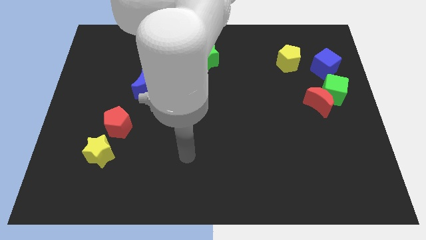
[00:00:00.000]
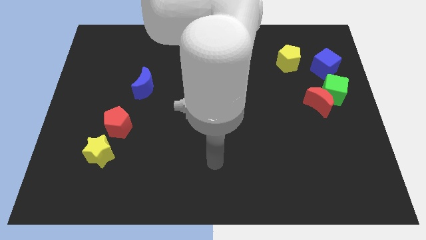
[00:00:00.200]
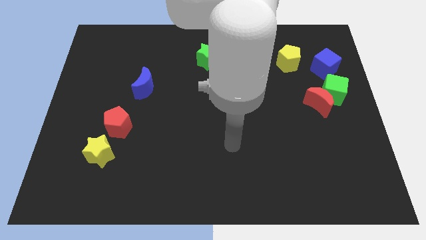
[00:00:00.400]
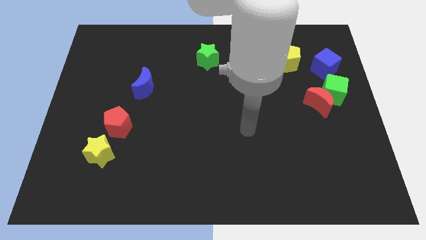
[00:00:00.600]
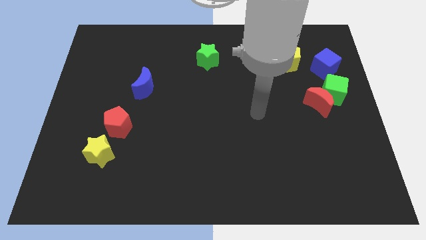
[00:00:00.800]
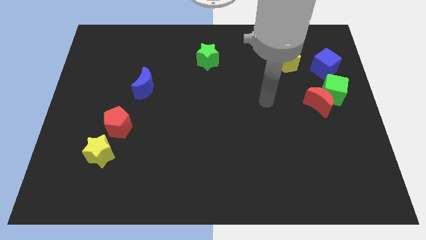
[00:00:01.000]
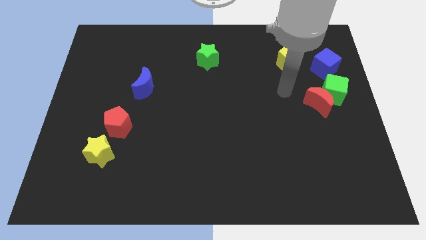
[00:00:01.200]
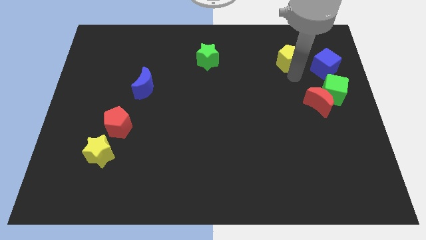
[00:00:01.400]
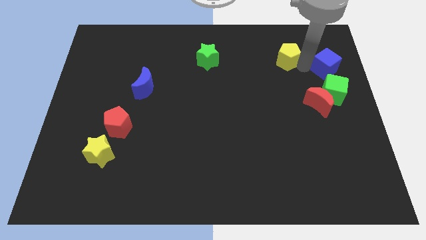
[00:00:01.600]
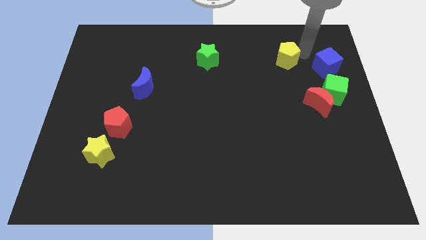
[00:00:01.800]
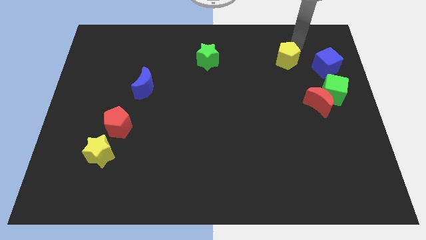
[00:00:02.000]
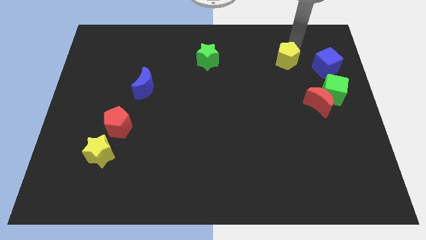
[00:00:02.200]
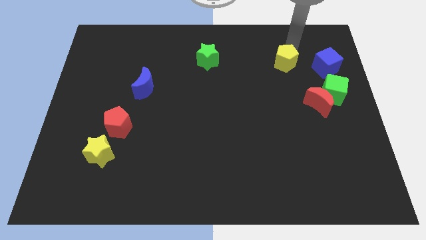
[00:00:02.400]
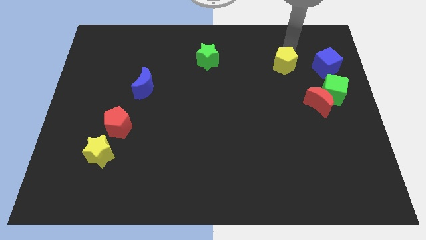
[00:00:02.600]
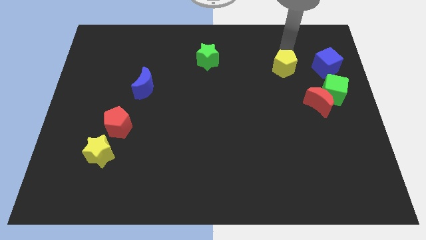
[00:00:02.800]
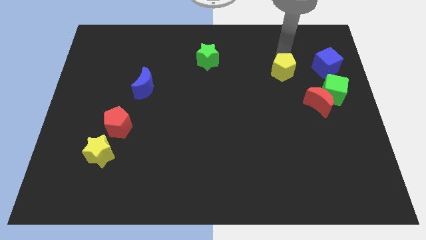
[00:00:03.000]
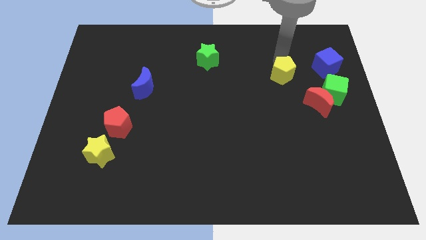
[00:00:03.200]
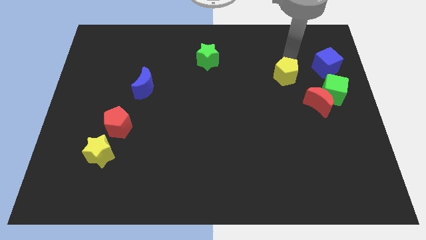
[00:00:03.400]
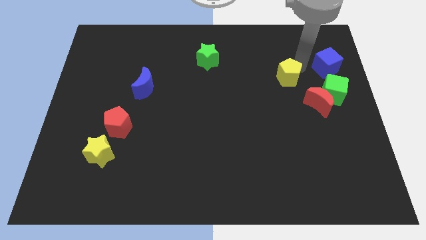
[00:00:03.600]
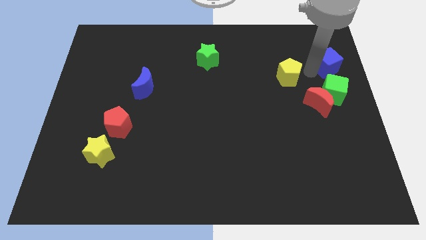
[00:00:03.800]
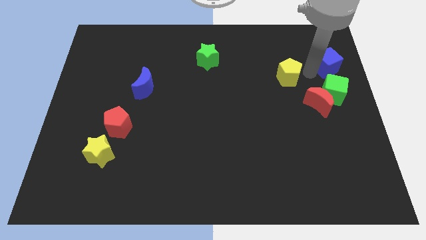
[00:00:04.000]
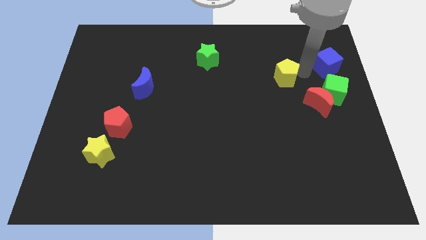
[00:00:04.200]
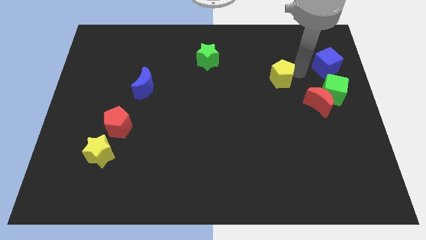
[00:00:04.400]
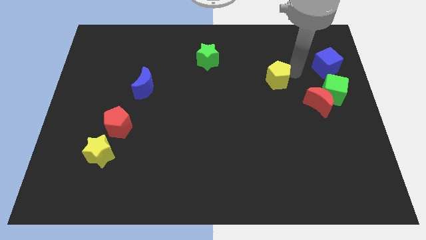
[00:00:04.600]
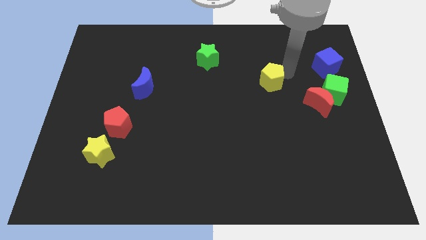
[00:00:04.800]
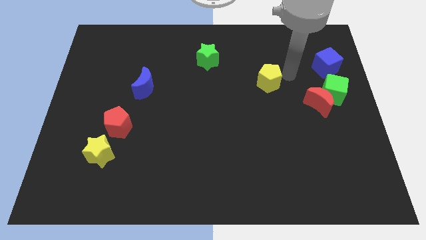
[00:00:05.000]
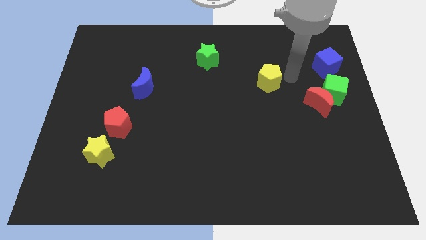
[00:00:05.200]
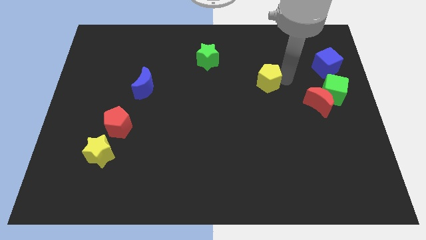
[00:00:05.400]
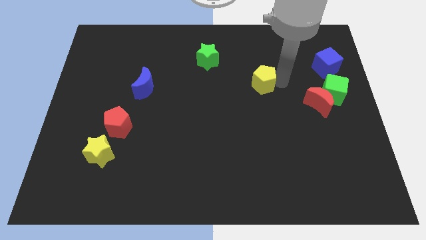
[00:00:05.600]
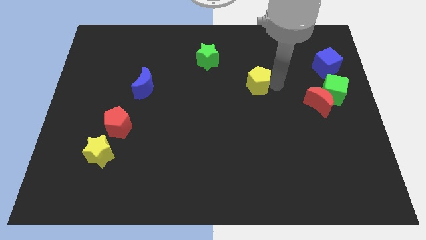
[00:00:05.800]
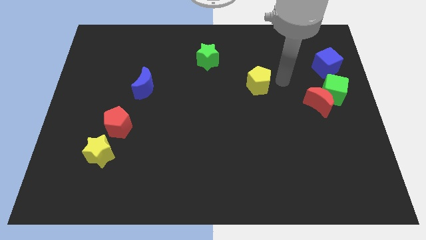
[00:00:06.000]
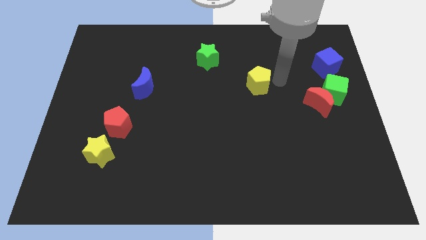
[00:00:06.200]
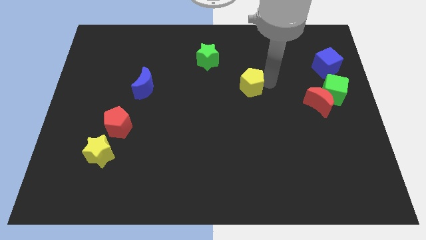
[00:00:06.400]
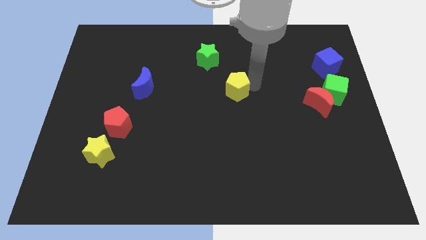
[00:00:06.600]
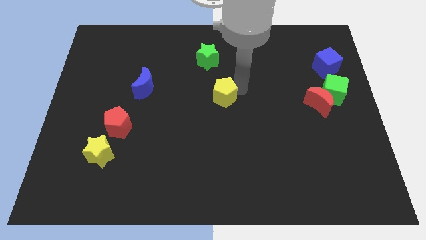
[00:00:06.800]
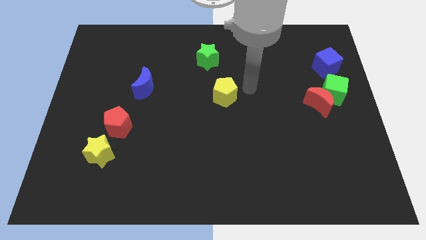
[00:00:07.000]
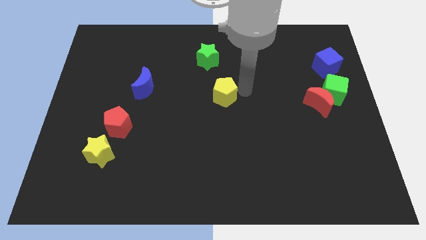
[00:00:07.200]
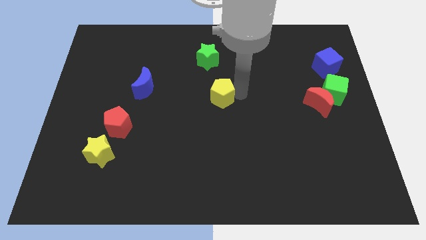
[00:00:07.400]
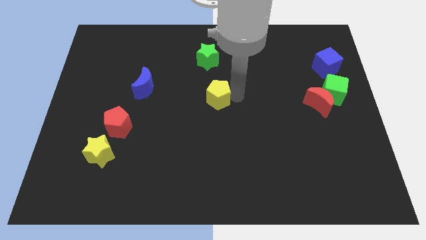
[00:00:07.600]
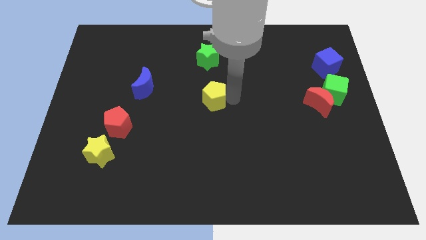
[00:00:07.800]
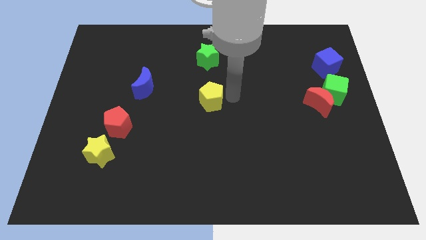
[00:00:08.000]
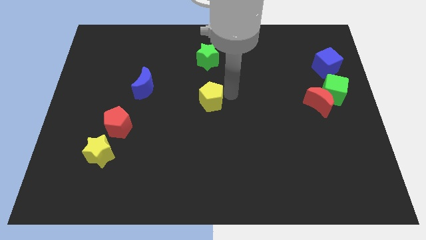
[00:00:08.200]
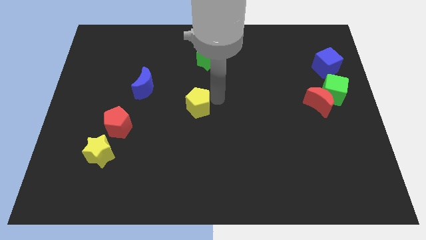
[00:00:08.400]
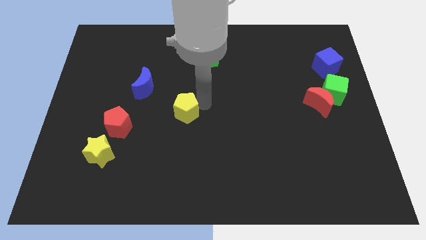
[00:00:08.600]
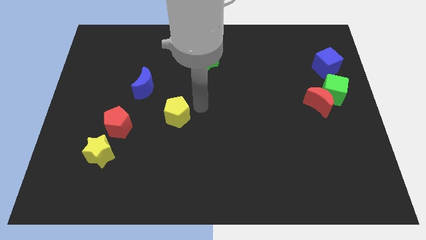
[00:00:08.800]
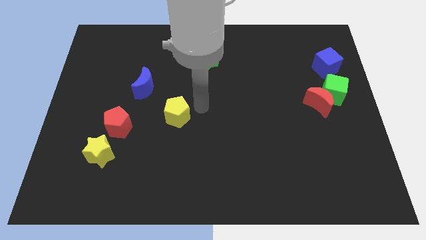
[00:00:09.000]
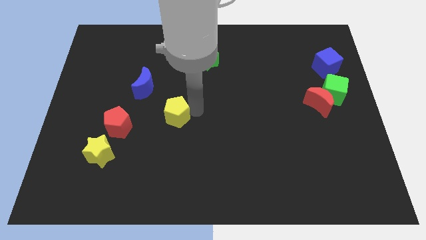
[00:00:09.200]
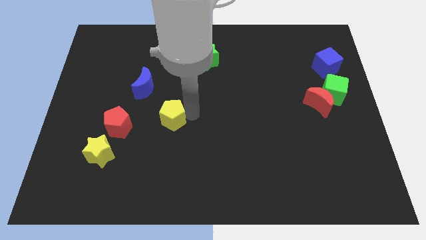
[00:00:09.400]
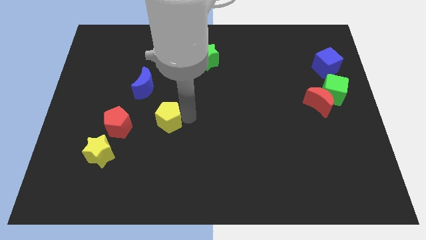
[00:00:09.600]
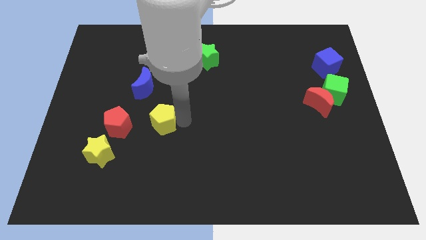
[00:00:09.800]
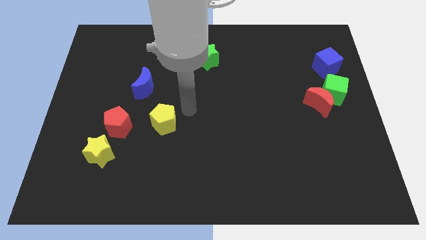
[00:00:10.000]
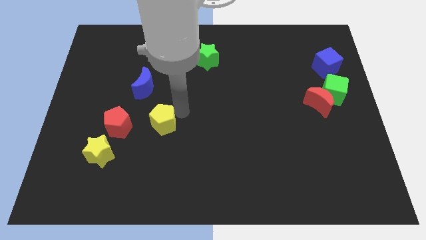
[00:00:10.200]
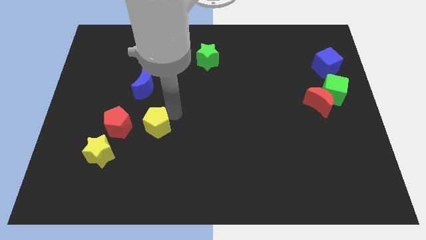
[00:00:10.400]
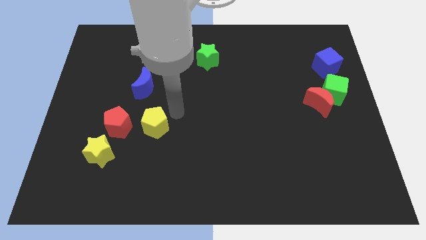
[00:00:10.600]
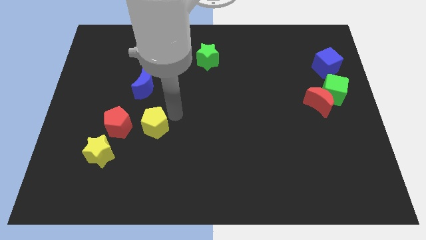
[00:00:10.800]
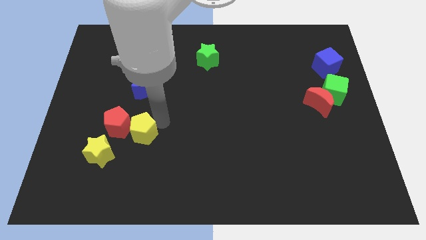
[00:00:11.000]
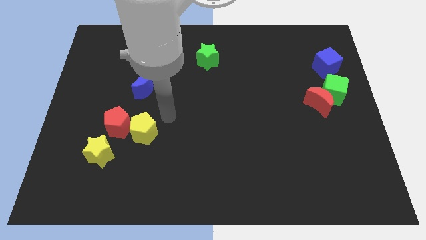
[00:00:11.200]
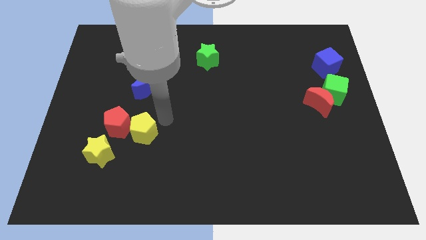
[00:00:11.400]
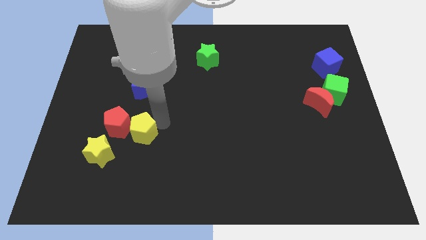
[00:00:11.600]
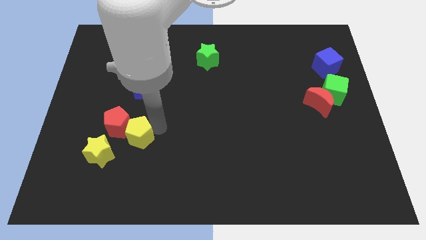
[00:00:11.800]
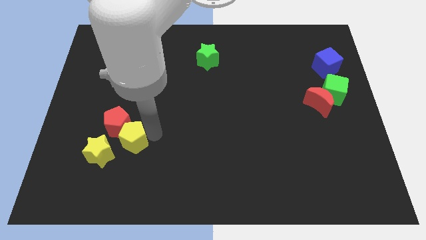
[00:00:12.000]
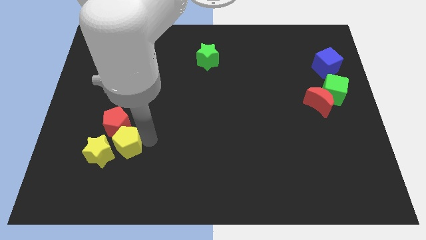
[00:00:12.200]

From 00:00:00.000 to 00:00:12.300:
put the yellow pentagon close to the yellow star

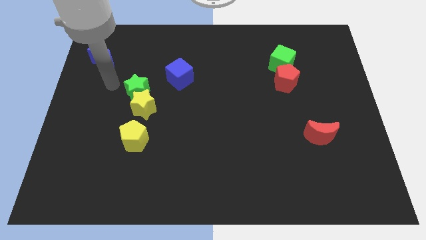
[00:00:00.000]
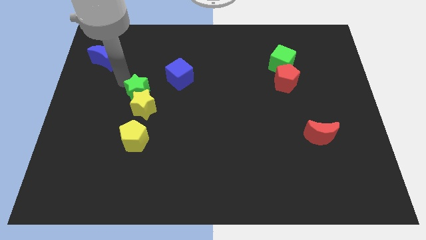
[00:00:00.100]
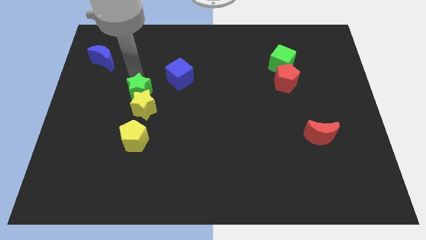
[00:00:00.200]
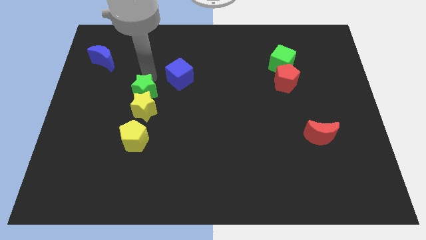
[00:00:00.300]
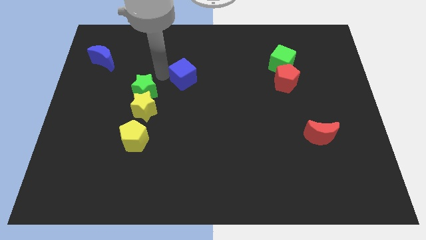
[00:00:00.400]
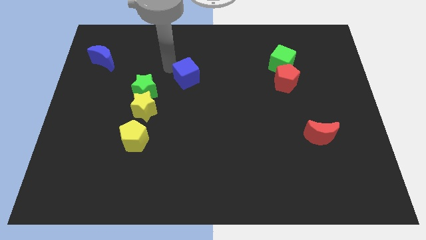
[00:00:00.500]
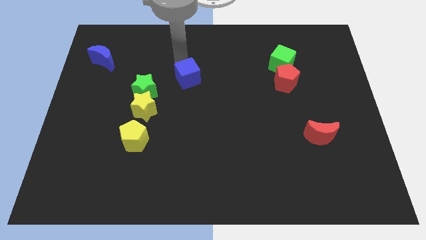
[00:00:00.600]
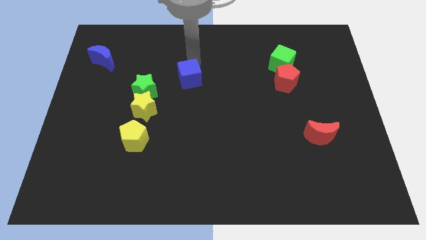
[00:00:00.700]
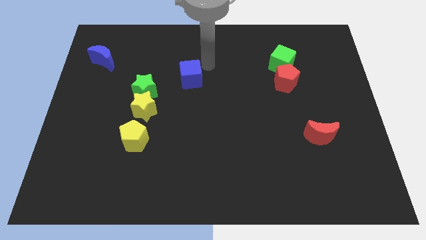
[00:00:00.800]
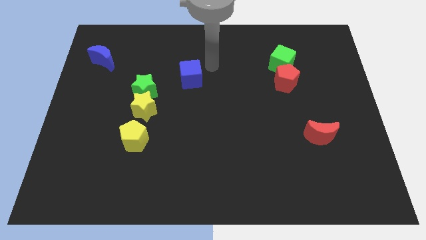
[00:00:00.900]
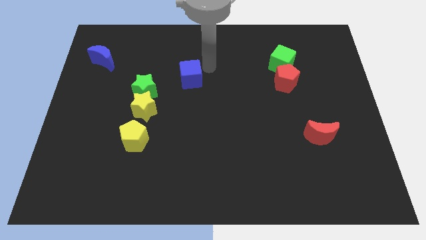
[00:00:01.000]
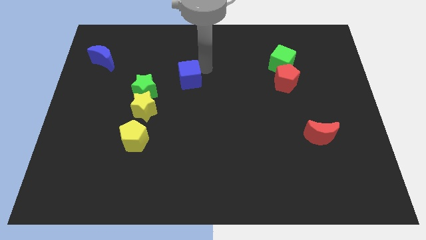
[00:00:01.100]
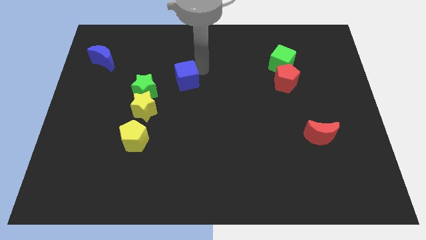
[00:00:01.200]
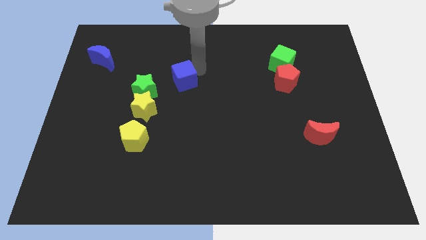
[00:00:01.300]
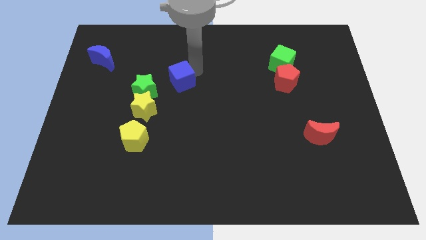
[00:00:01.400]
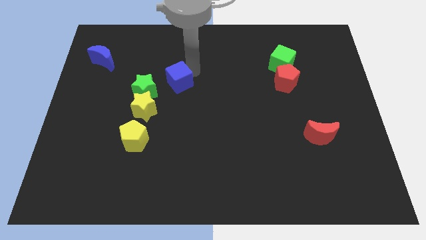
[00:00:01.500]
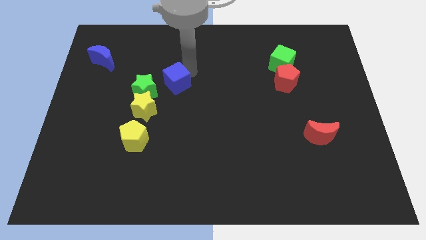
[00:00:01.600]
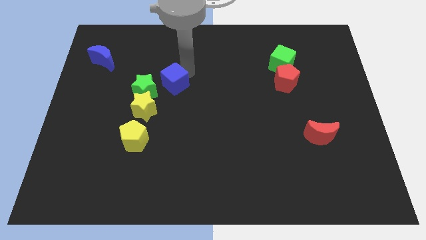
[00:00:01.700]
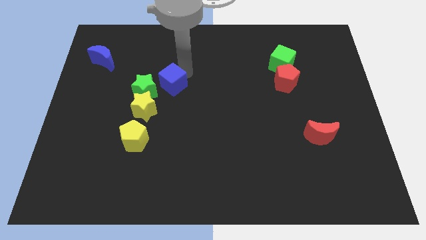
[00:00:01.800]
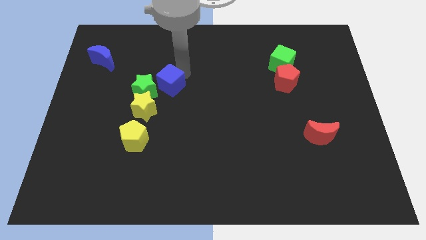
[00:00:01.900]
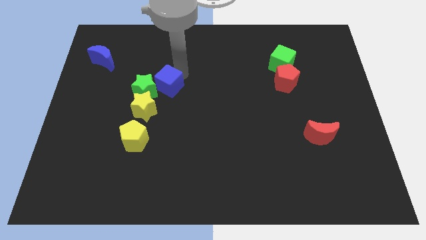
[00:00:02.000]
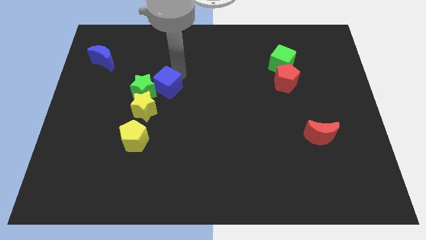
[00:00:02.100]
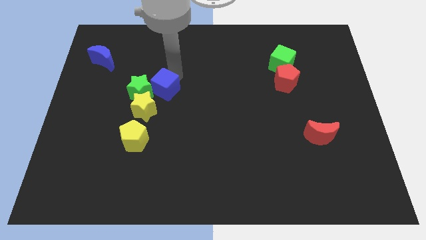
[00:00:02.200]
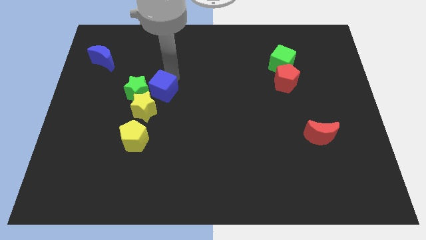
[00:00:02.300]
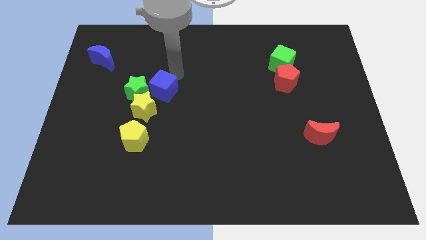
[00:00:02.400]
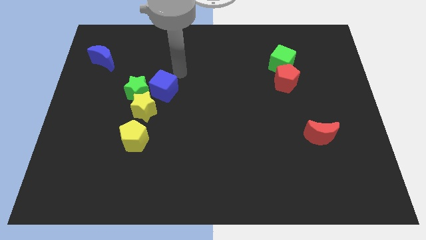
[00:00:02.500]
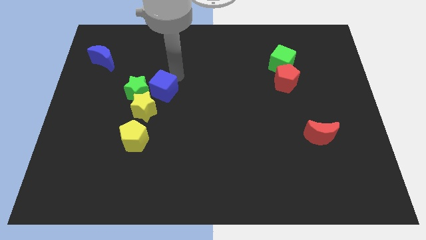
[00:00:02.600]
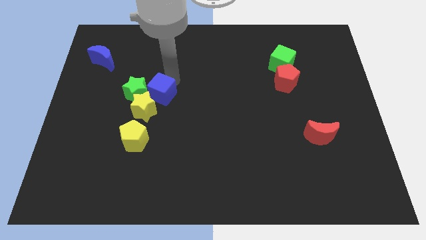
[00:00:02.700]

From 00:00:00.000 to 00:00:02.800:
put the blue cube towards the yellow star
